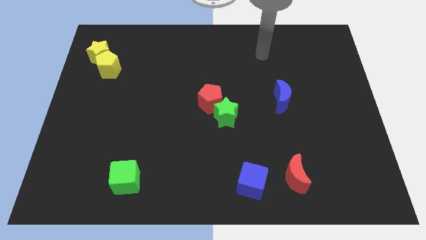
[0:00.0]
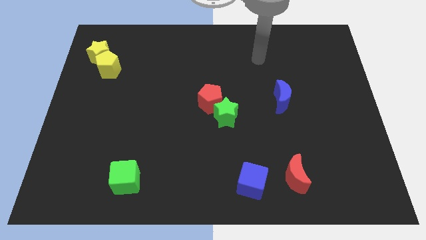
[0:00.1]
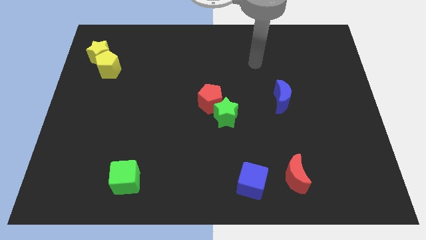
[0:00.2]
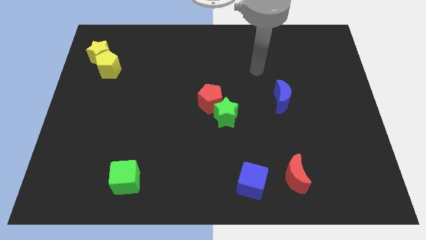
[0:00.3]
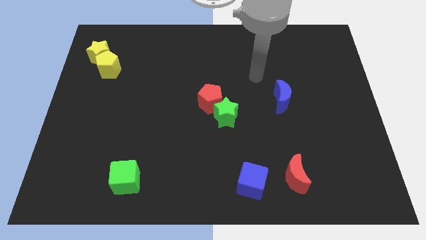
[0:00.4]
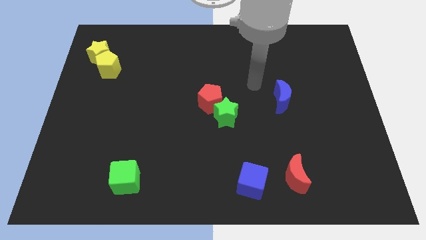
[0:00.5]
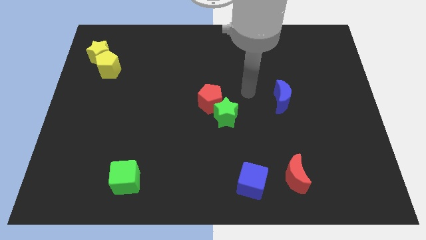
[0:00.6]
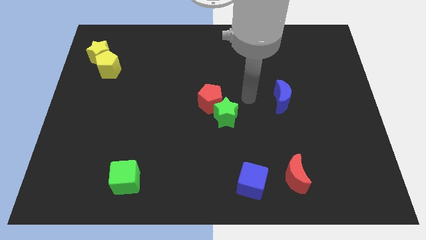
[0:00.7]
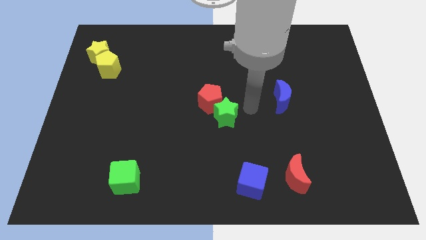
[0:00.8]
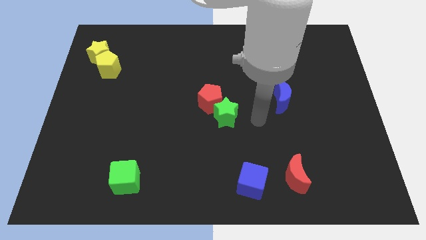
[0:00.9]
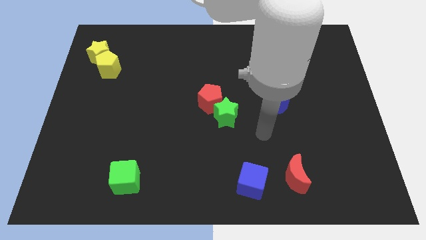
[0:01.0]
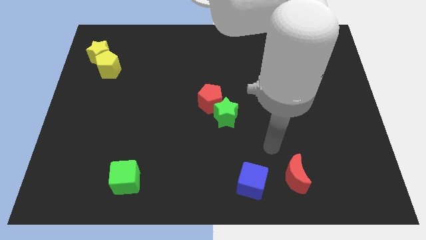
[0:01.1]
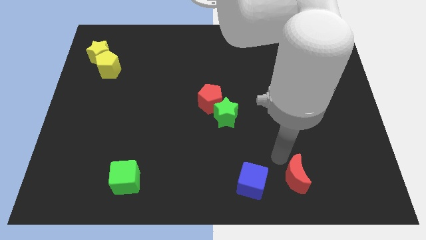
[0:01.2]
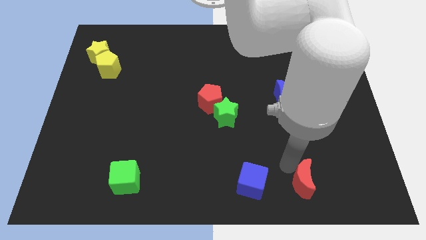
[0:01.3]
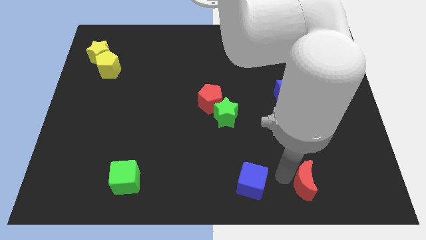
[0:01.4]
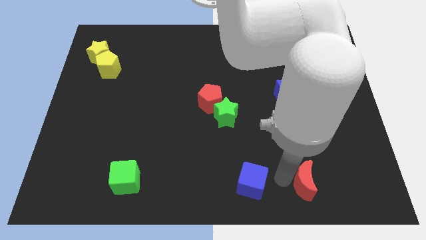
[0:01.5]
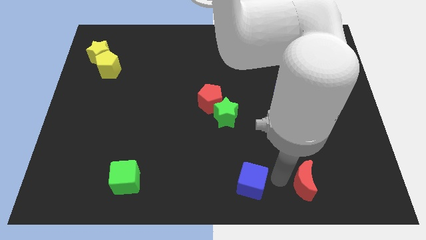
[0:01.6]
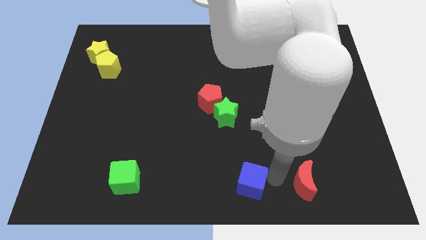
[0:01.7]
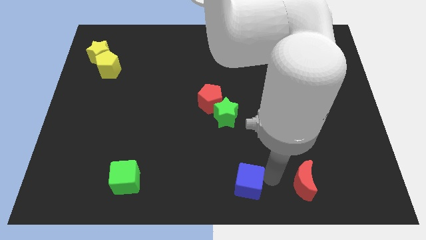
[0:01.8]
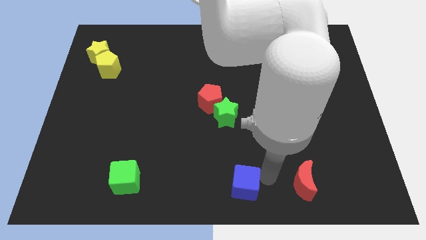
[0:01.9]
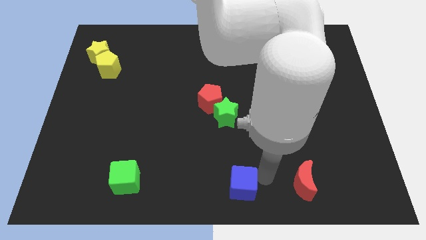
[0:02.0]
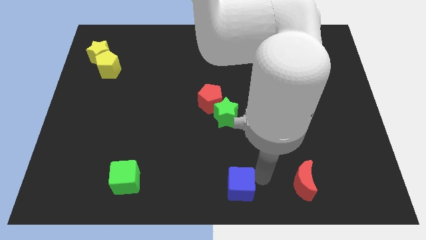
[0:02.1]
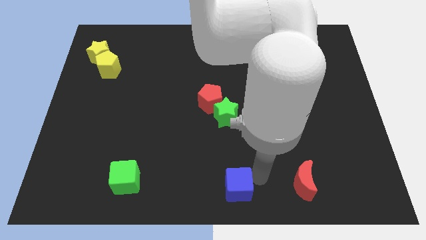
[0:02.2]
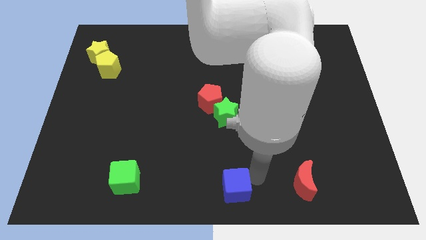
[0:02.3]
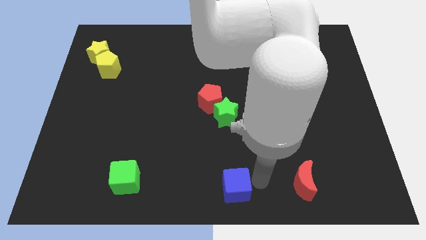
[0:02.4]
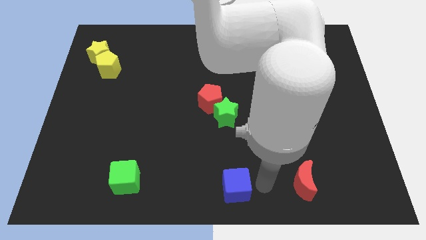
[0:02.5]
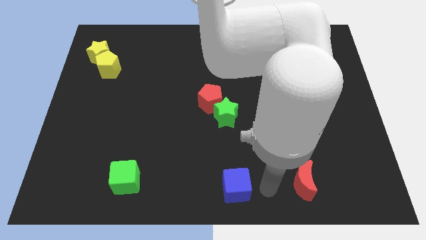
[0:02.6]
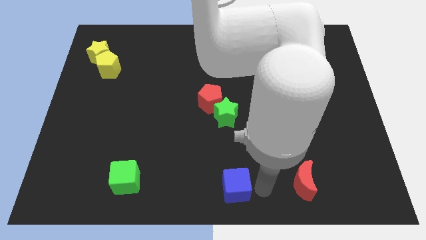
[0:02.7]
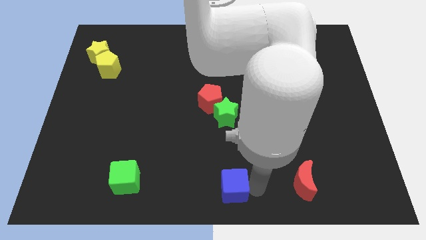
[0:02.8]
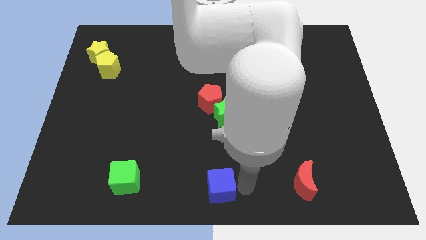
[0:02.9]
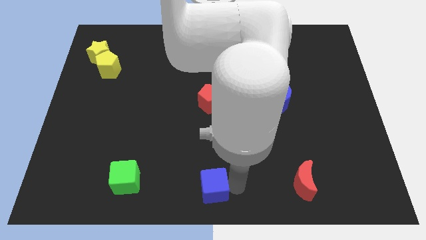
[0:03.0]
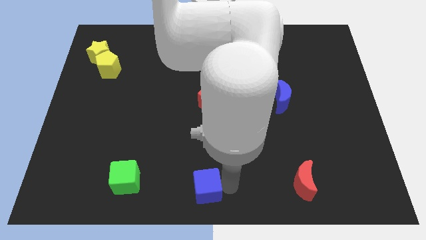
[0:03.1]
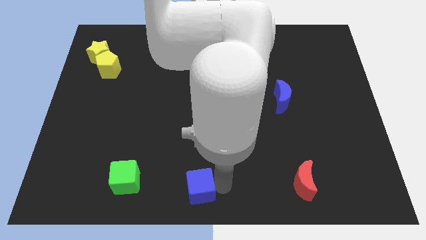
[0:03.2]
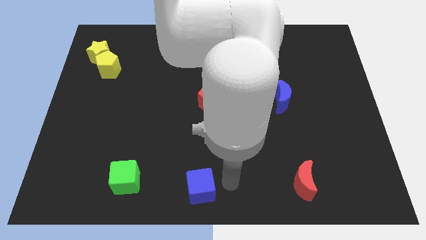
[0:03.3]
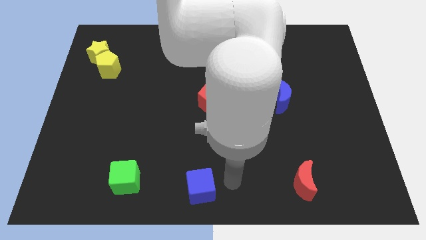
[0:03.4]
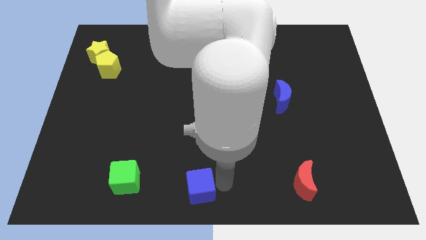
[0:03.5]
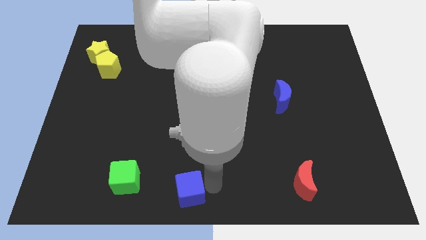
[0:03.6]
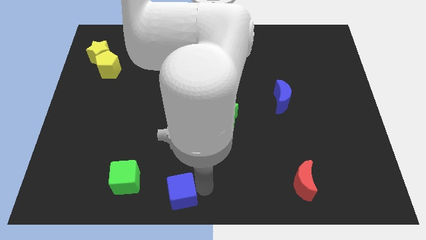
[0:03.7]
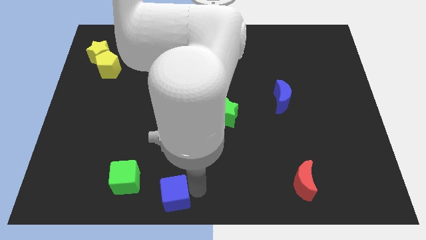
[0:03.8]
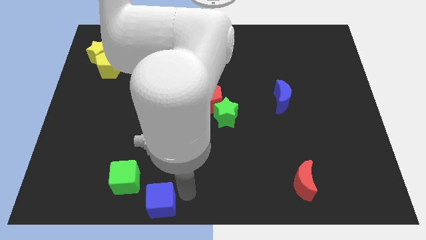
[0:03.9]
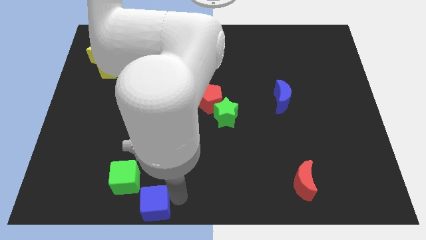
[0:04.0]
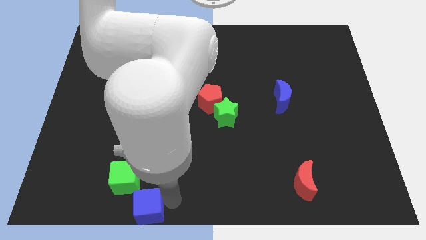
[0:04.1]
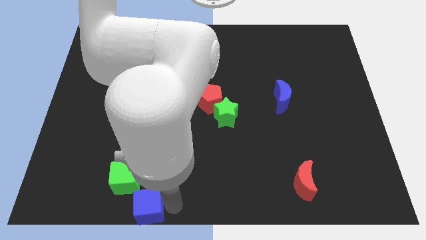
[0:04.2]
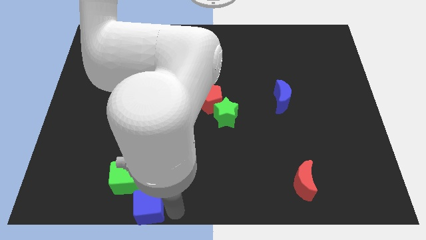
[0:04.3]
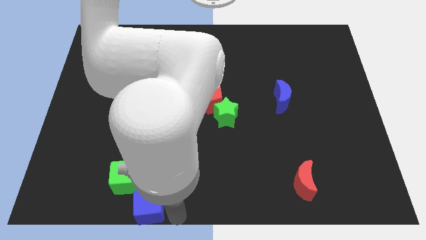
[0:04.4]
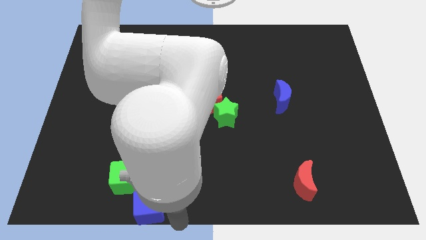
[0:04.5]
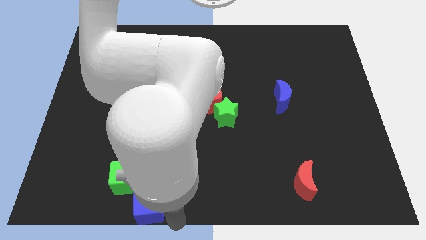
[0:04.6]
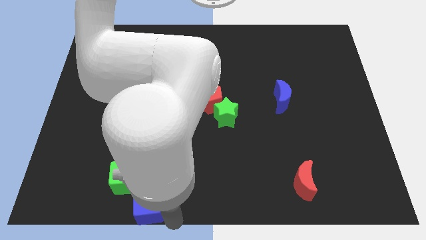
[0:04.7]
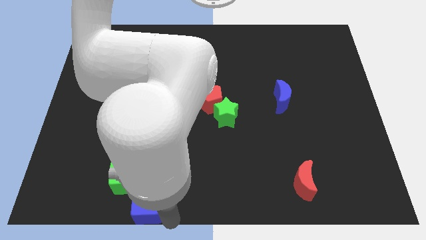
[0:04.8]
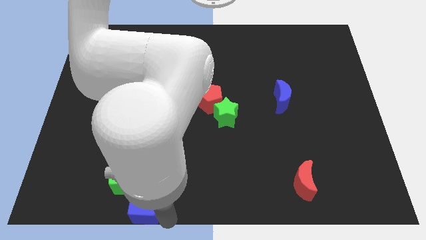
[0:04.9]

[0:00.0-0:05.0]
slide the blue cube left

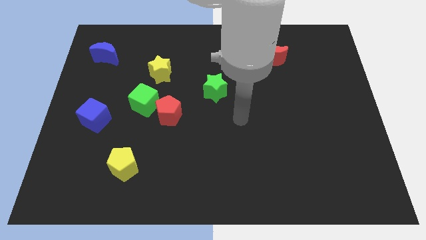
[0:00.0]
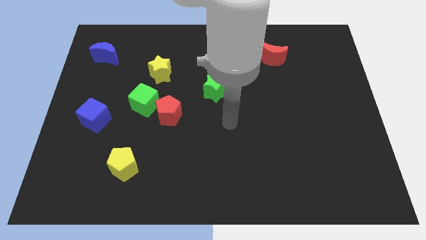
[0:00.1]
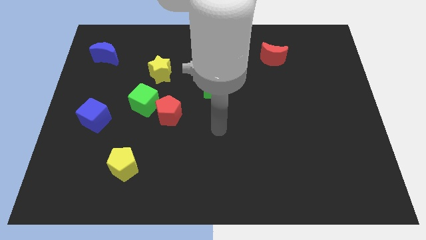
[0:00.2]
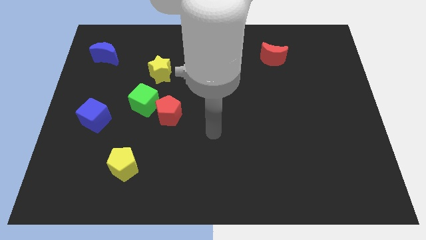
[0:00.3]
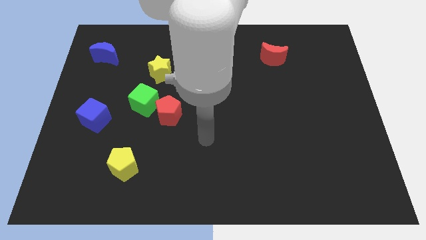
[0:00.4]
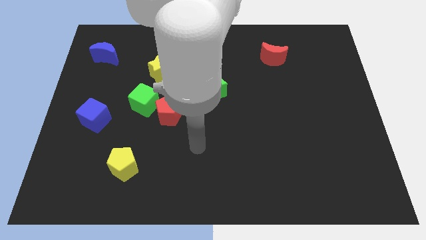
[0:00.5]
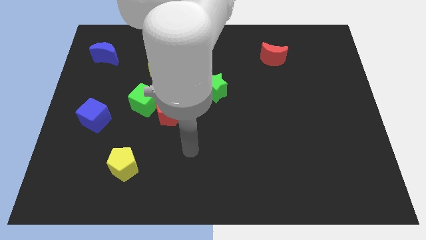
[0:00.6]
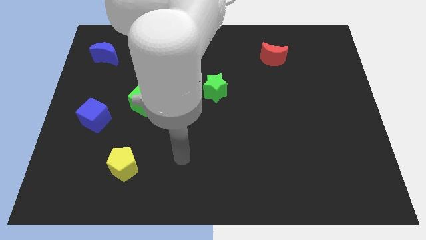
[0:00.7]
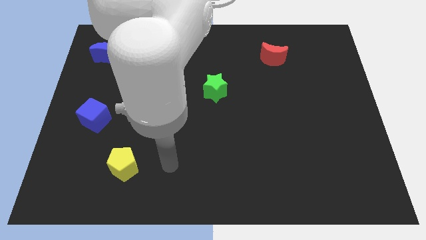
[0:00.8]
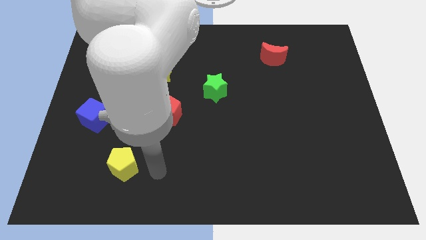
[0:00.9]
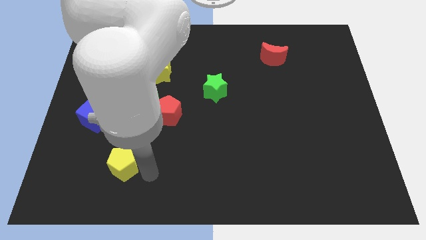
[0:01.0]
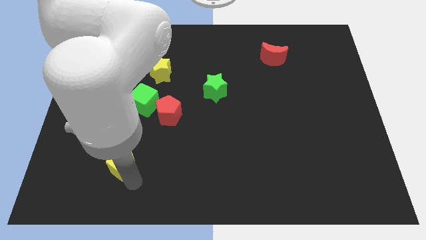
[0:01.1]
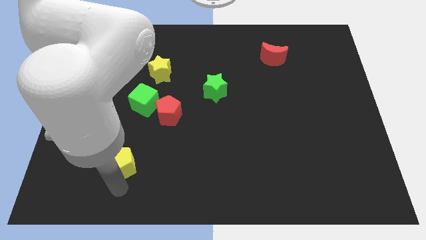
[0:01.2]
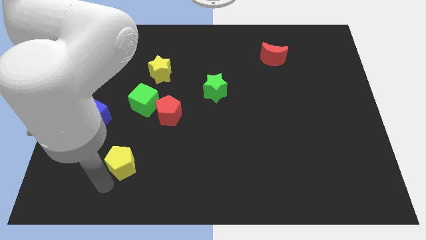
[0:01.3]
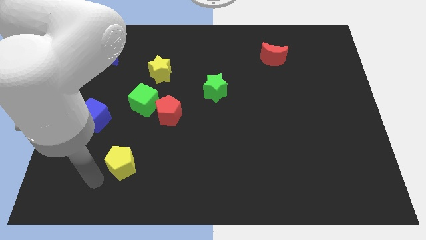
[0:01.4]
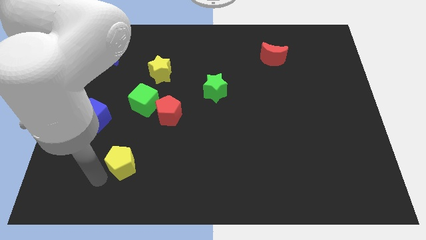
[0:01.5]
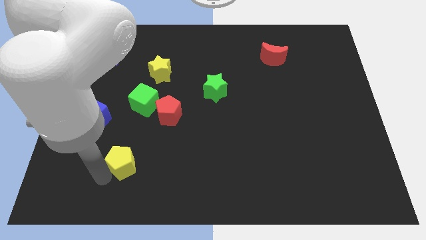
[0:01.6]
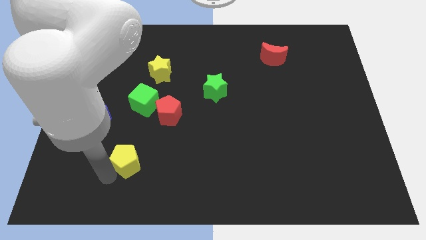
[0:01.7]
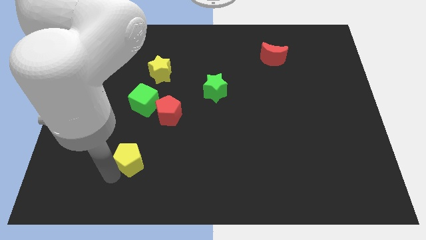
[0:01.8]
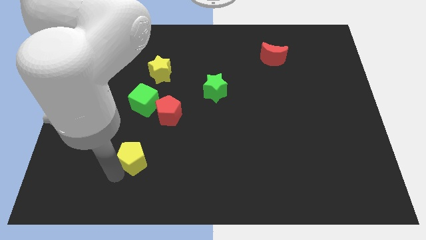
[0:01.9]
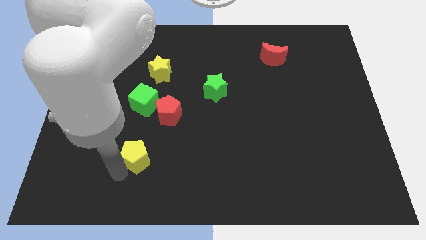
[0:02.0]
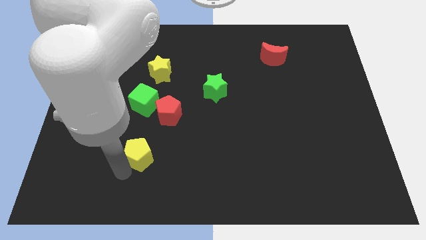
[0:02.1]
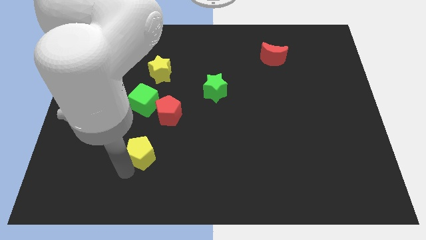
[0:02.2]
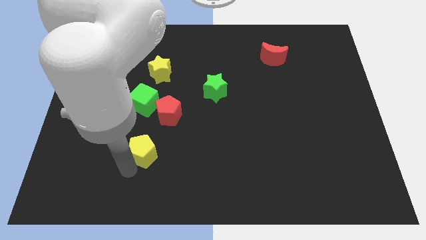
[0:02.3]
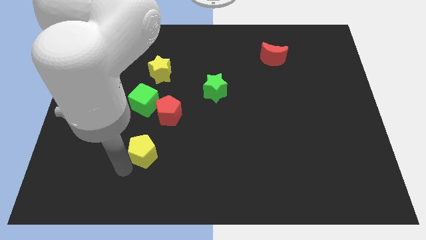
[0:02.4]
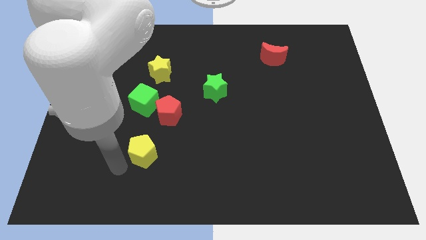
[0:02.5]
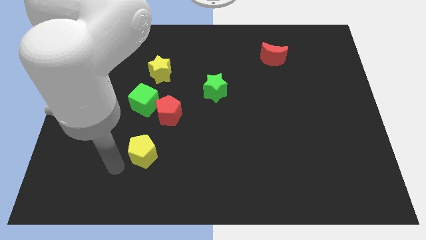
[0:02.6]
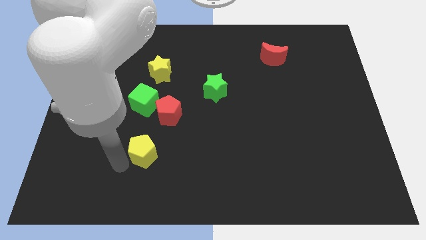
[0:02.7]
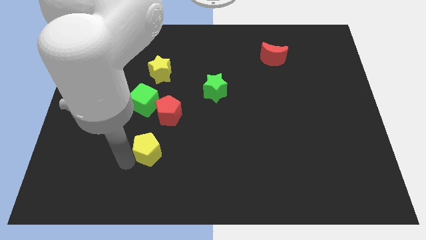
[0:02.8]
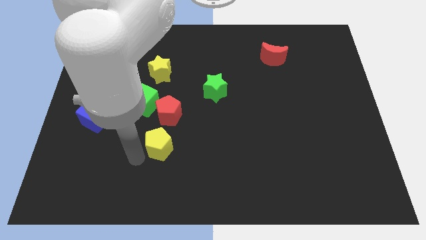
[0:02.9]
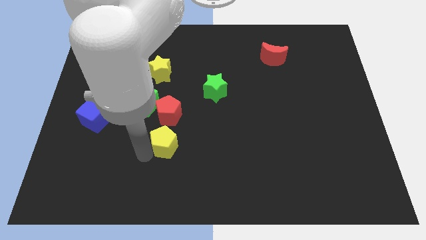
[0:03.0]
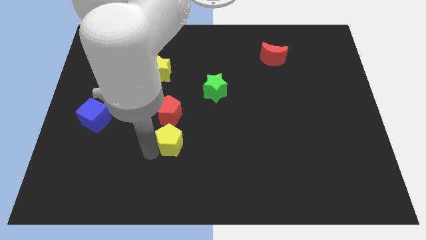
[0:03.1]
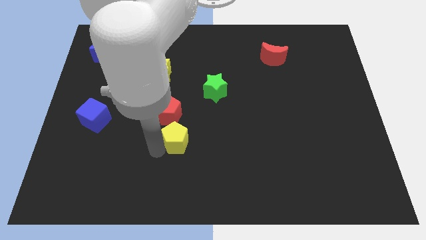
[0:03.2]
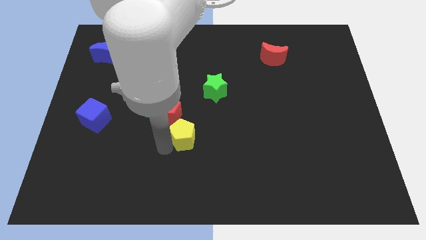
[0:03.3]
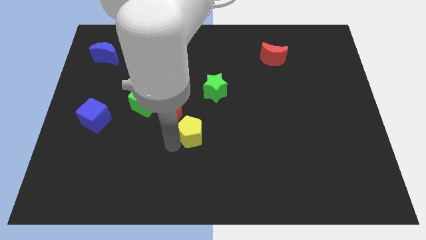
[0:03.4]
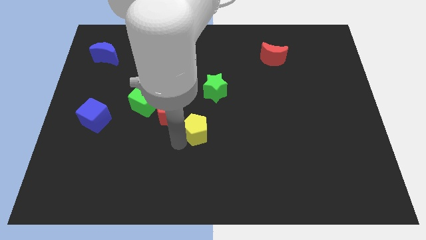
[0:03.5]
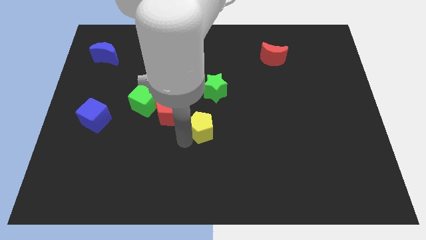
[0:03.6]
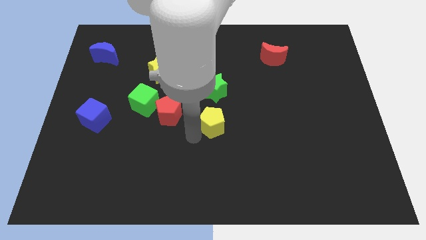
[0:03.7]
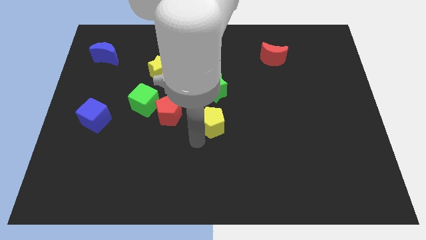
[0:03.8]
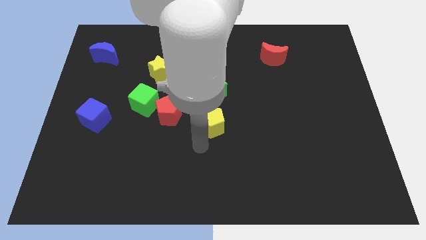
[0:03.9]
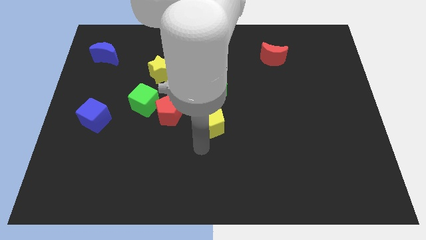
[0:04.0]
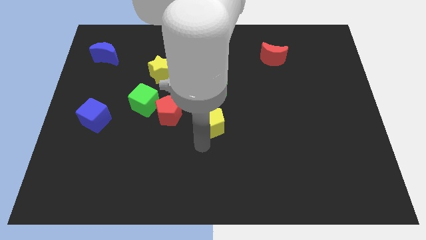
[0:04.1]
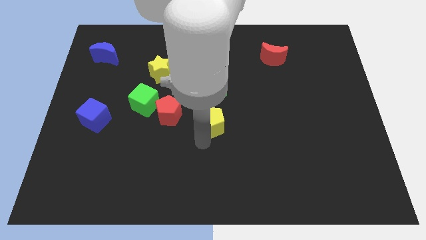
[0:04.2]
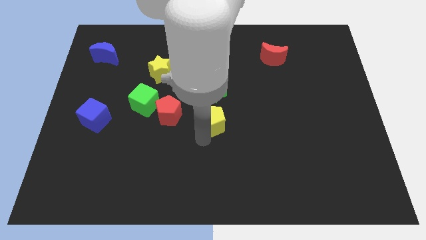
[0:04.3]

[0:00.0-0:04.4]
move the yellow pentagon upwards and to the right diagonally
